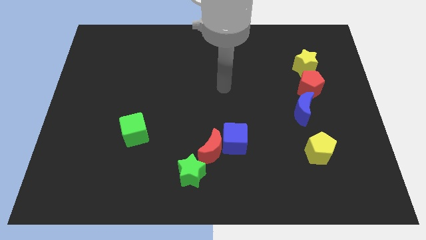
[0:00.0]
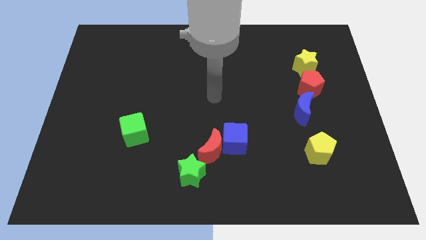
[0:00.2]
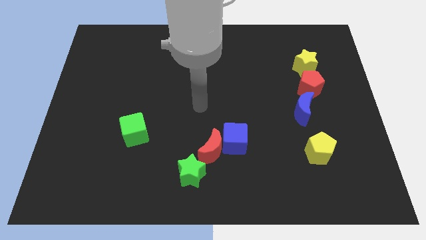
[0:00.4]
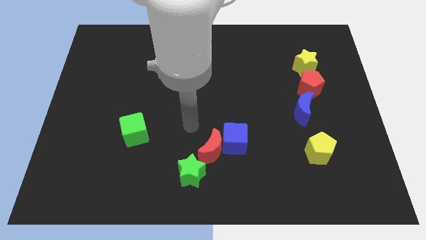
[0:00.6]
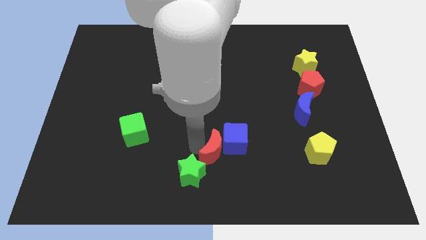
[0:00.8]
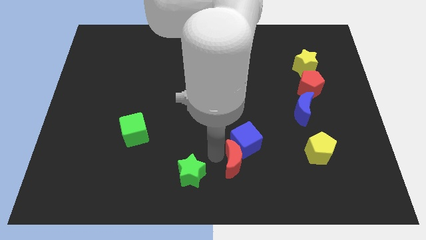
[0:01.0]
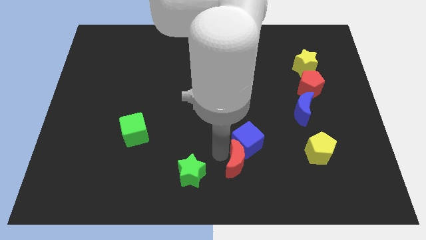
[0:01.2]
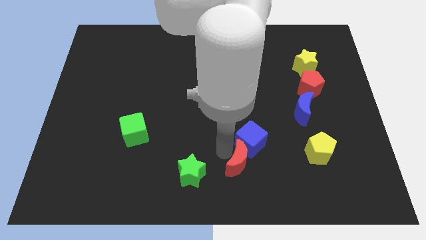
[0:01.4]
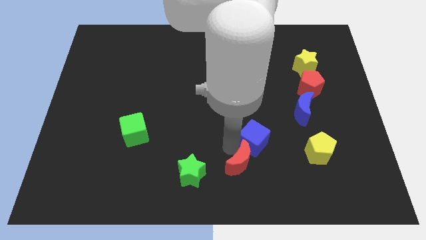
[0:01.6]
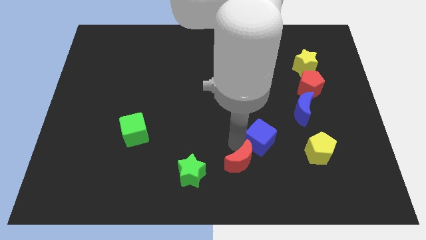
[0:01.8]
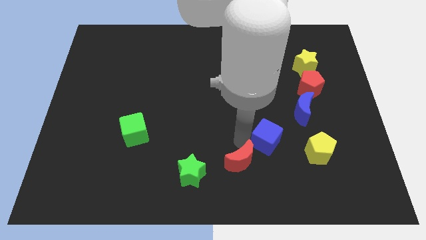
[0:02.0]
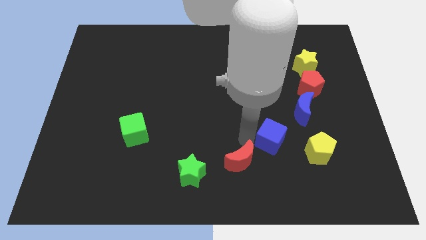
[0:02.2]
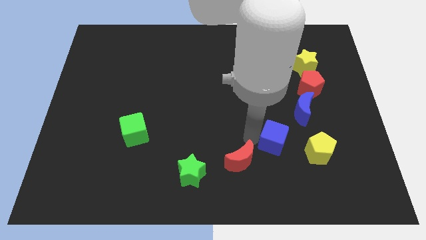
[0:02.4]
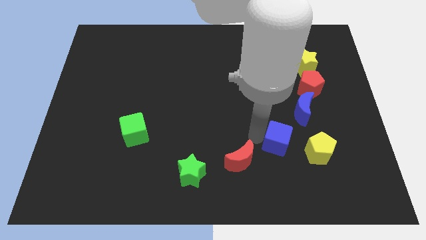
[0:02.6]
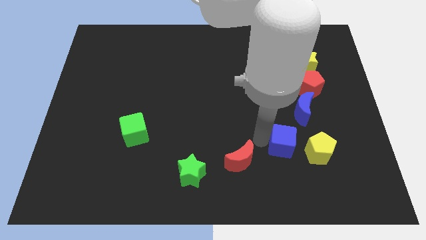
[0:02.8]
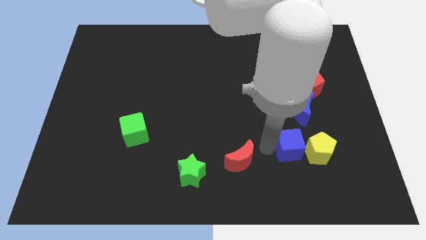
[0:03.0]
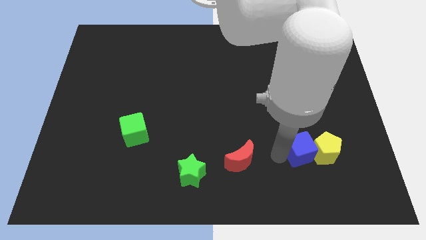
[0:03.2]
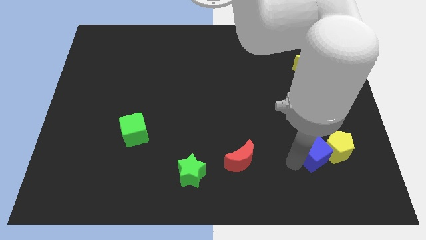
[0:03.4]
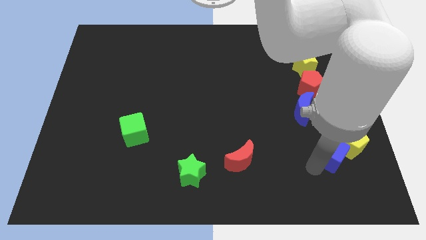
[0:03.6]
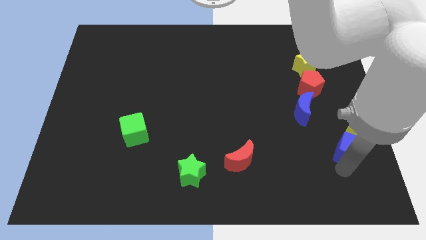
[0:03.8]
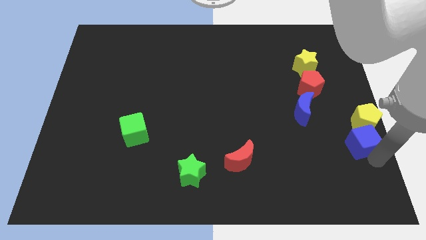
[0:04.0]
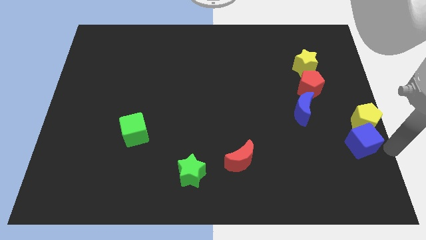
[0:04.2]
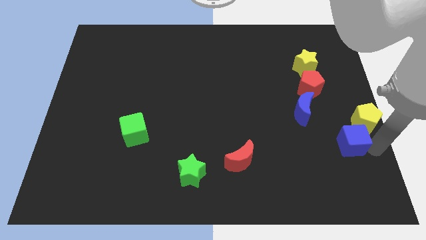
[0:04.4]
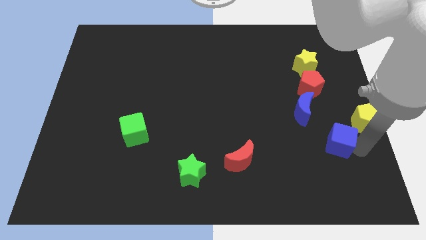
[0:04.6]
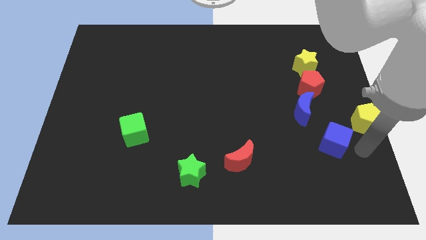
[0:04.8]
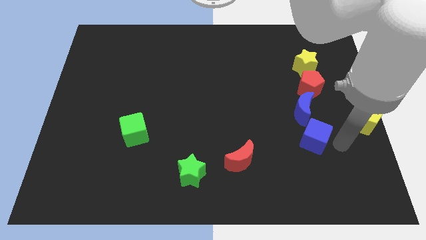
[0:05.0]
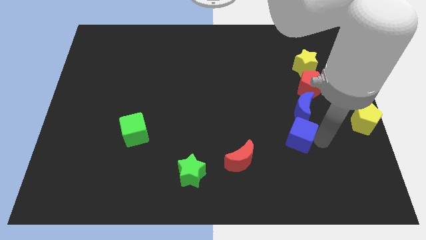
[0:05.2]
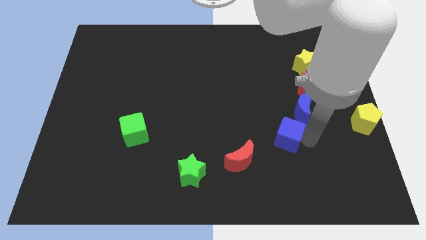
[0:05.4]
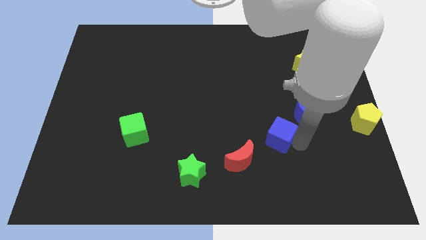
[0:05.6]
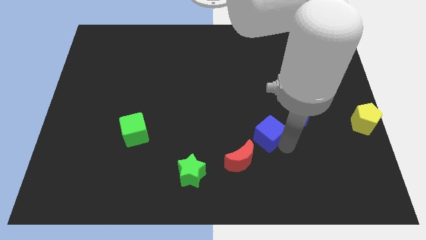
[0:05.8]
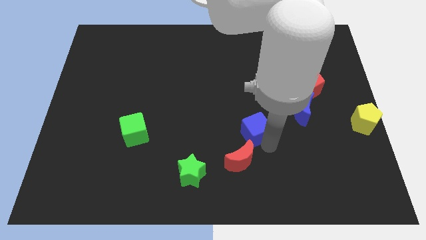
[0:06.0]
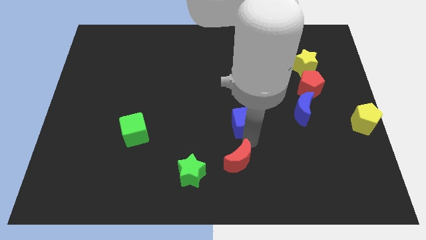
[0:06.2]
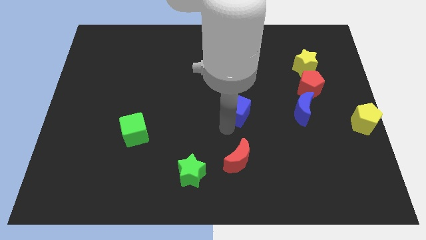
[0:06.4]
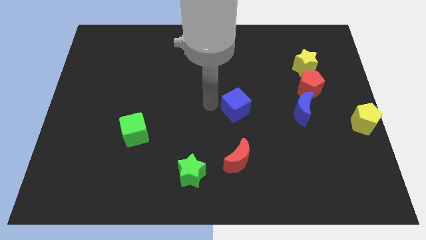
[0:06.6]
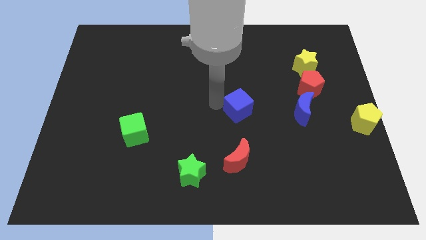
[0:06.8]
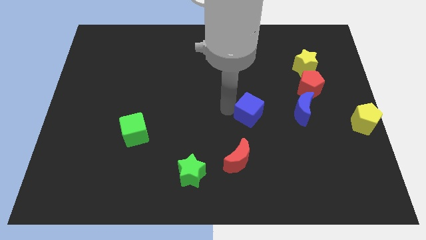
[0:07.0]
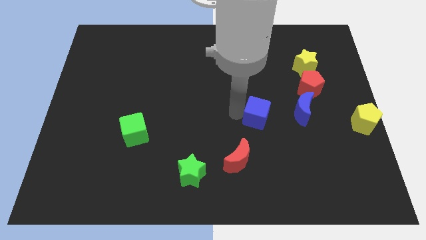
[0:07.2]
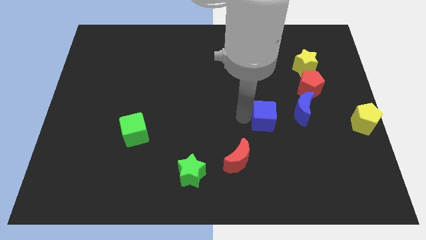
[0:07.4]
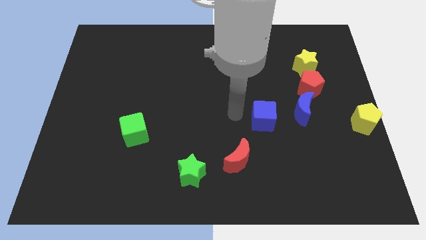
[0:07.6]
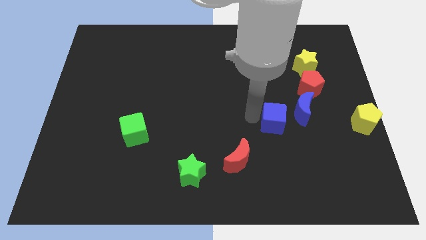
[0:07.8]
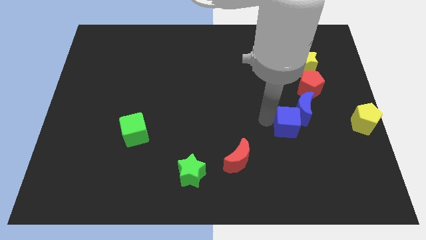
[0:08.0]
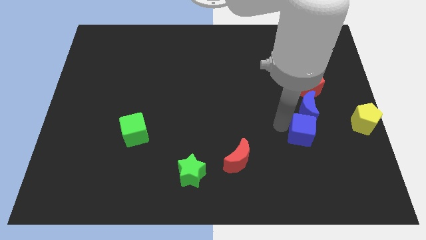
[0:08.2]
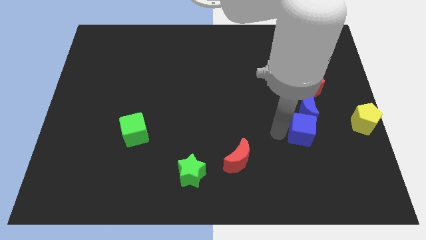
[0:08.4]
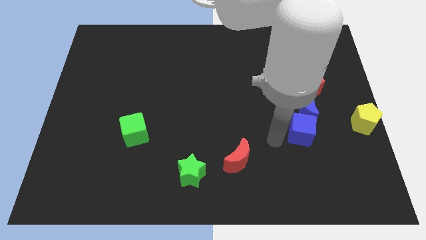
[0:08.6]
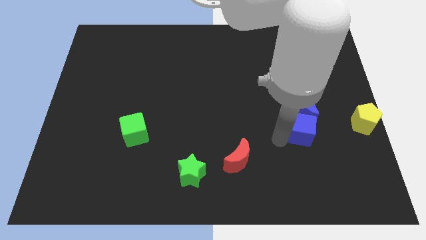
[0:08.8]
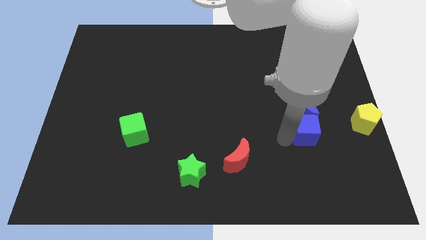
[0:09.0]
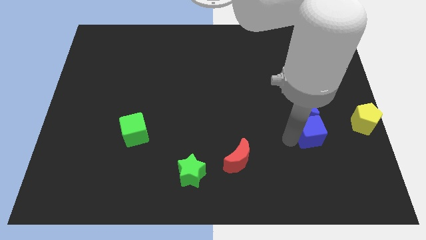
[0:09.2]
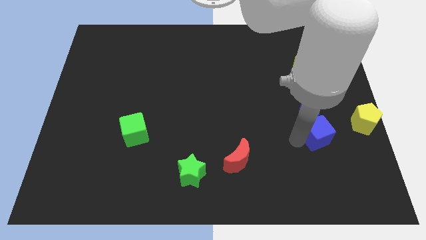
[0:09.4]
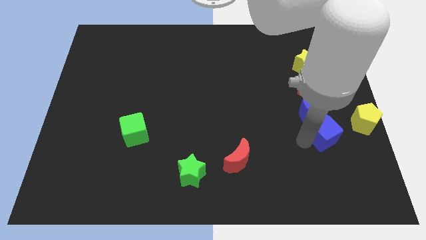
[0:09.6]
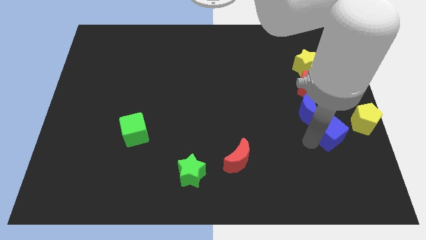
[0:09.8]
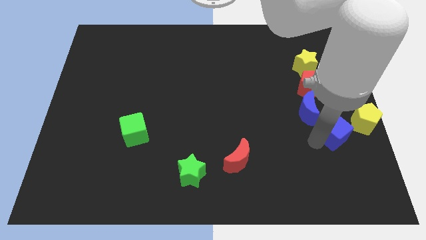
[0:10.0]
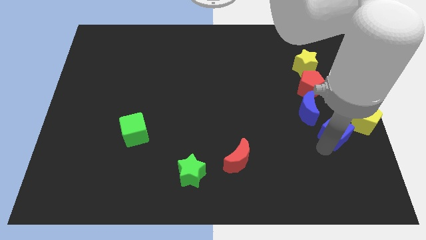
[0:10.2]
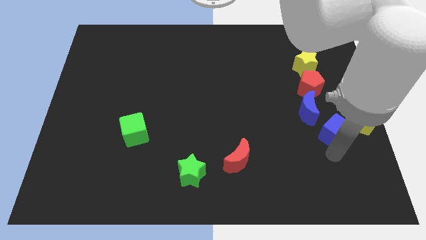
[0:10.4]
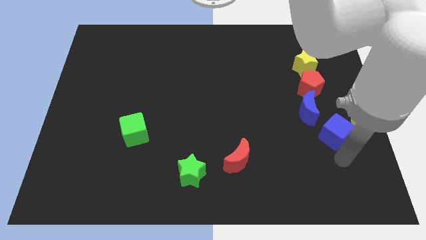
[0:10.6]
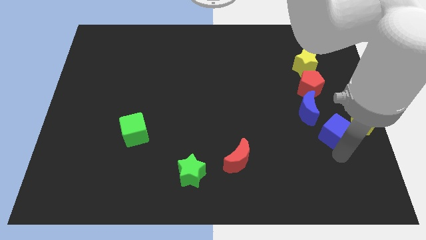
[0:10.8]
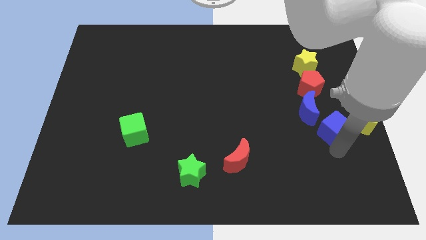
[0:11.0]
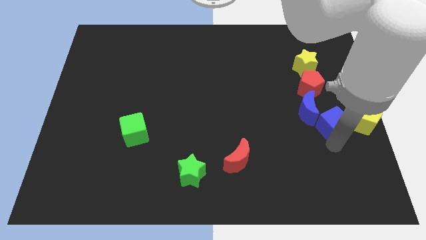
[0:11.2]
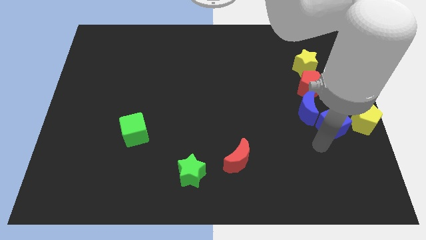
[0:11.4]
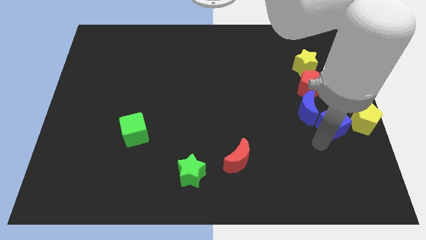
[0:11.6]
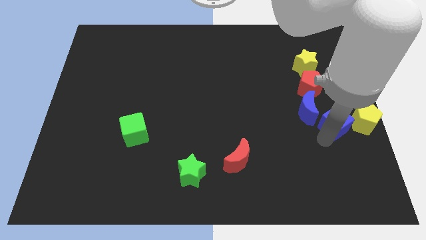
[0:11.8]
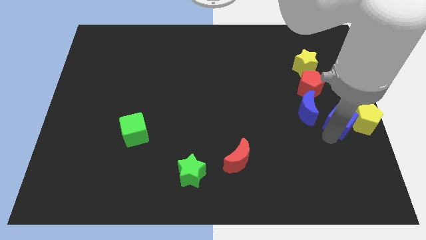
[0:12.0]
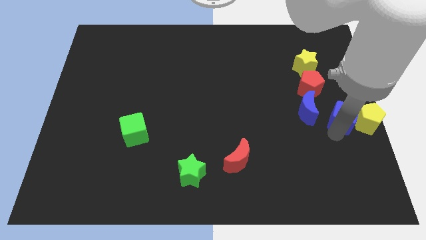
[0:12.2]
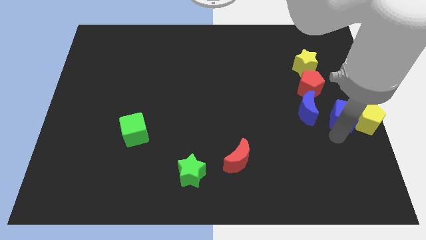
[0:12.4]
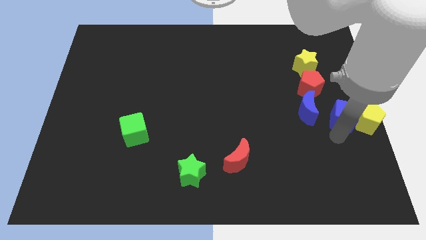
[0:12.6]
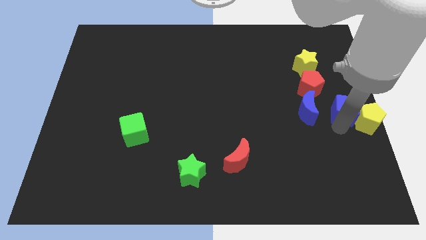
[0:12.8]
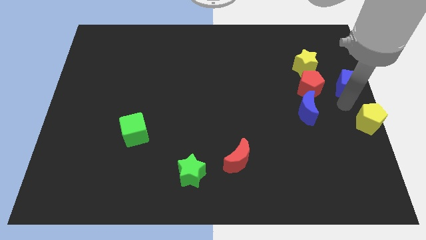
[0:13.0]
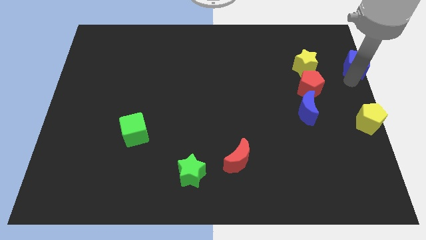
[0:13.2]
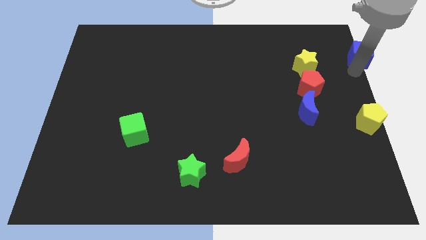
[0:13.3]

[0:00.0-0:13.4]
put the blue cube to the top right corner

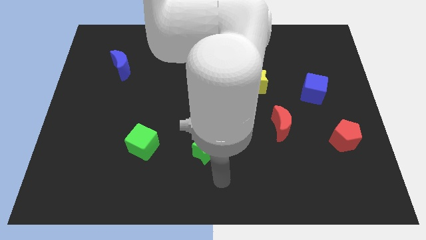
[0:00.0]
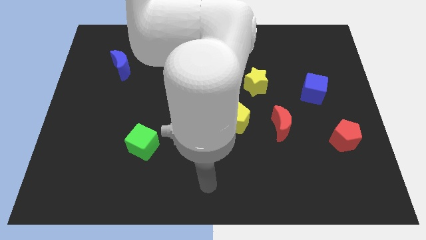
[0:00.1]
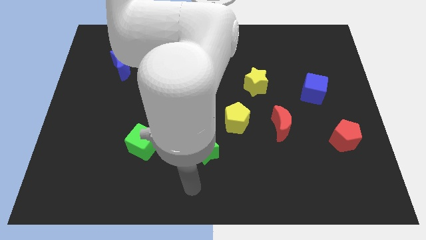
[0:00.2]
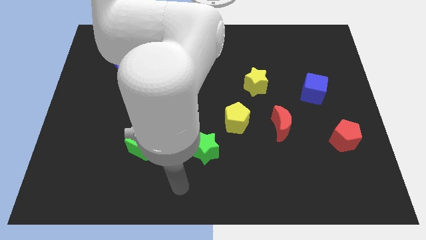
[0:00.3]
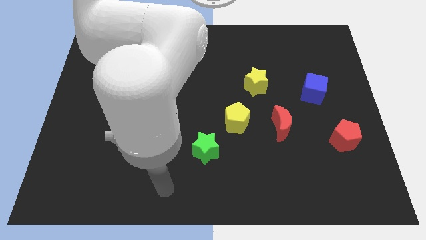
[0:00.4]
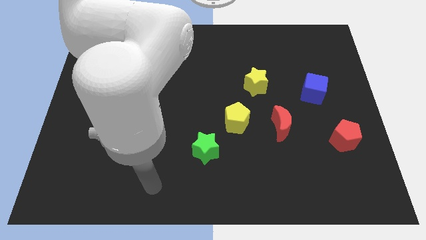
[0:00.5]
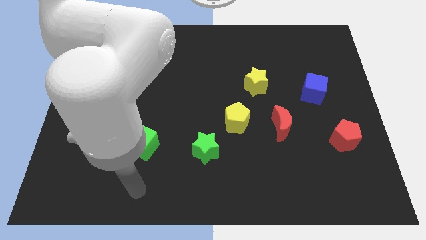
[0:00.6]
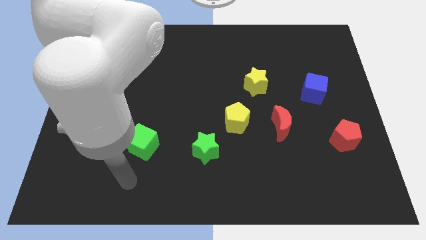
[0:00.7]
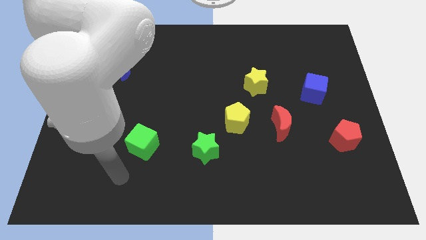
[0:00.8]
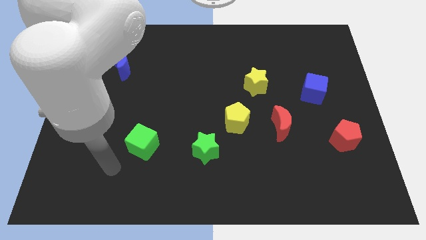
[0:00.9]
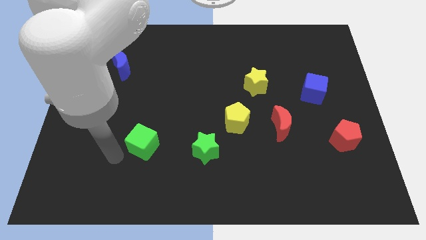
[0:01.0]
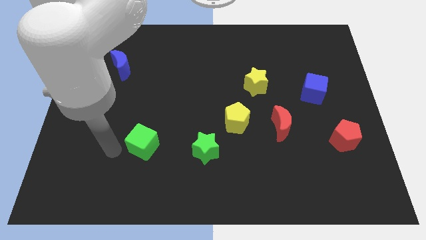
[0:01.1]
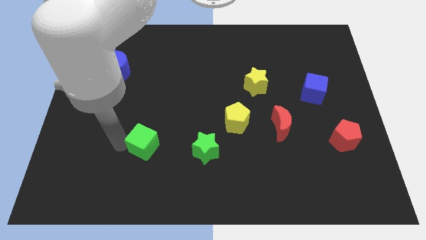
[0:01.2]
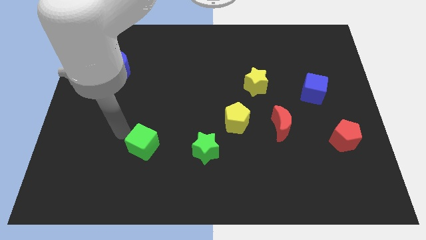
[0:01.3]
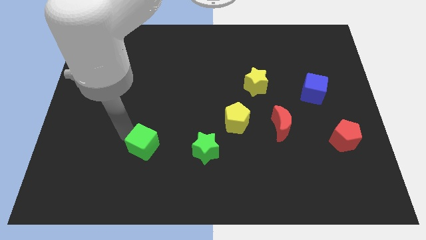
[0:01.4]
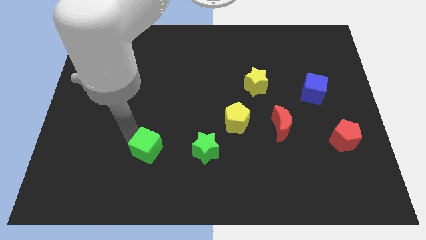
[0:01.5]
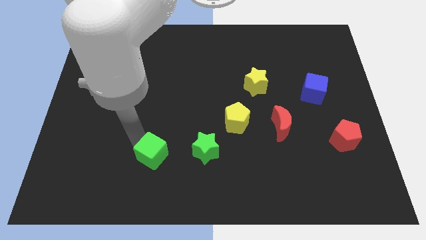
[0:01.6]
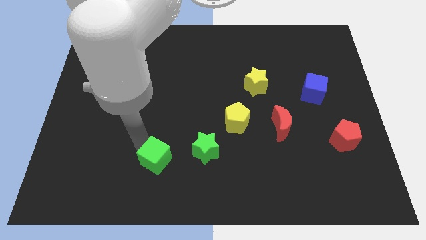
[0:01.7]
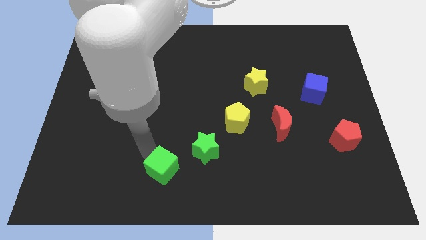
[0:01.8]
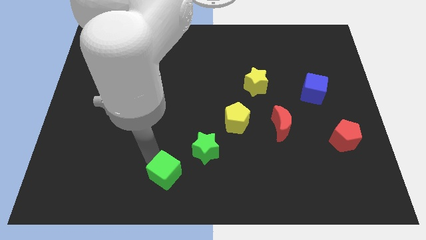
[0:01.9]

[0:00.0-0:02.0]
put the green cube to the bottom
